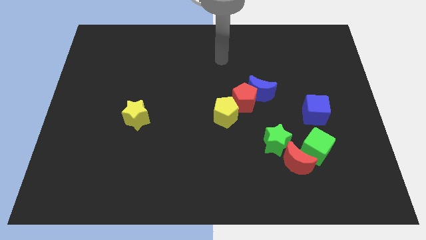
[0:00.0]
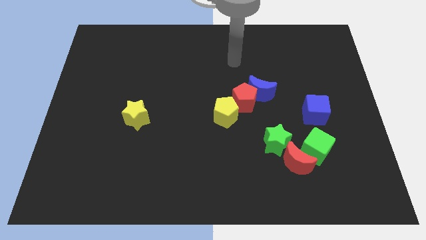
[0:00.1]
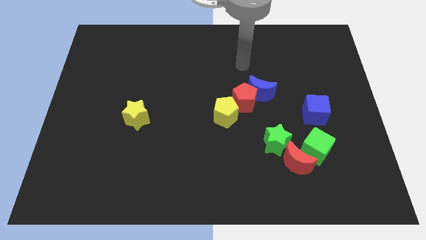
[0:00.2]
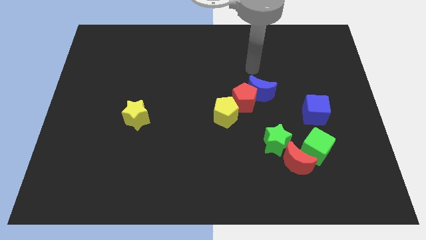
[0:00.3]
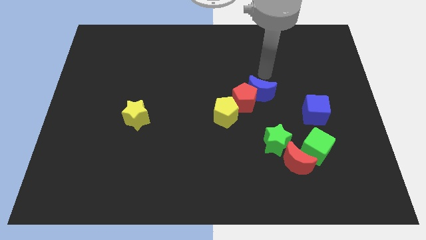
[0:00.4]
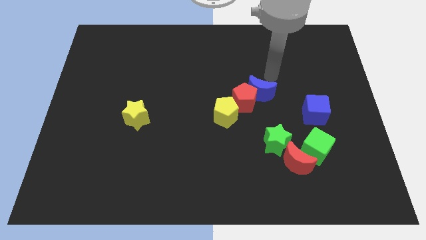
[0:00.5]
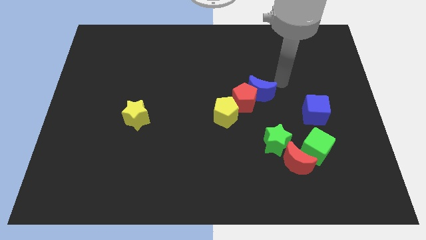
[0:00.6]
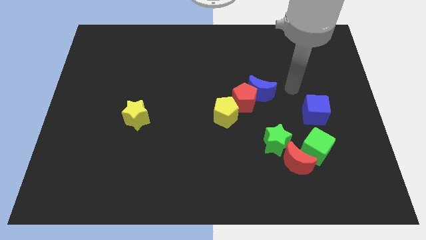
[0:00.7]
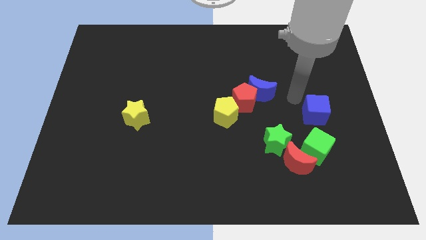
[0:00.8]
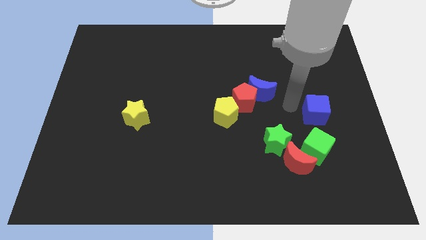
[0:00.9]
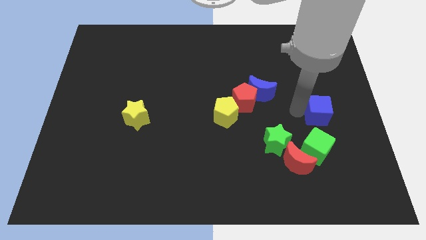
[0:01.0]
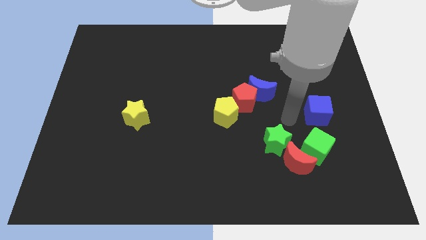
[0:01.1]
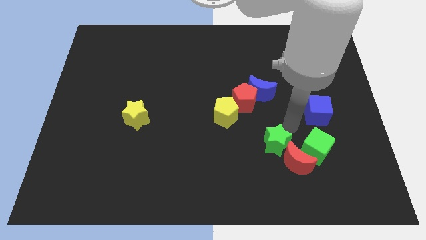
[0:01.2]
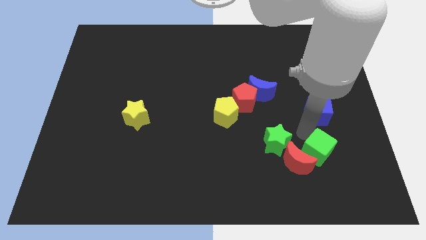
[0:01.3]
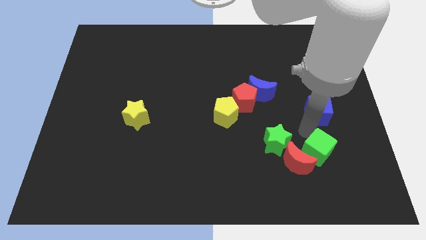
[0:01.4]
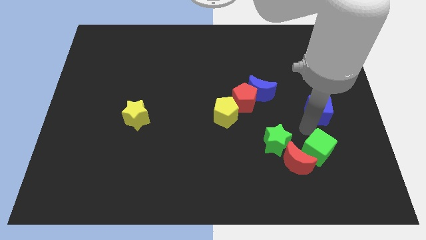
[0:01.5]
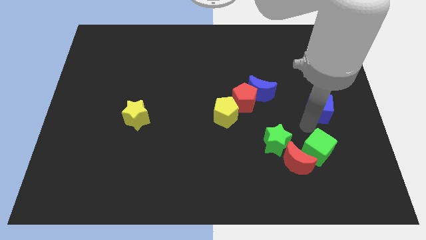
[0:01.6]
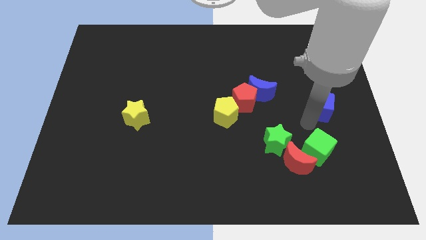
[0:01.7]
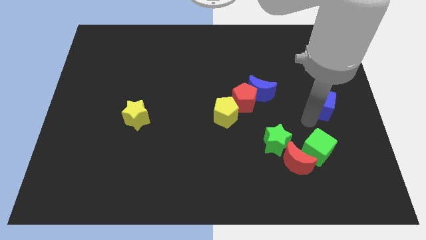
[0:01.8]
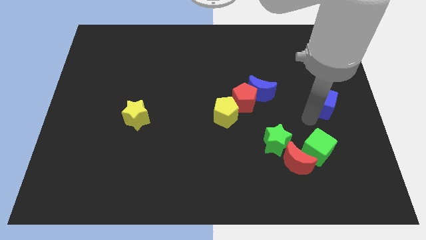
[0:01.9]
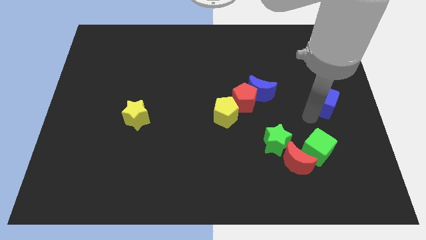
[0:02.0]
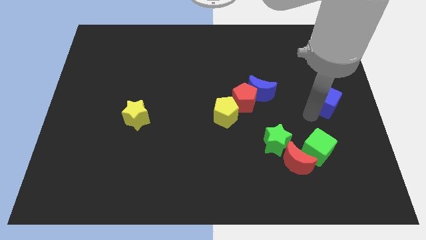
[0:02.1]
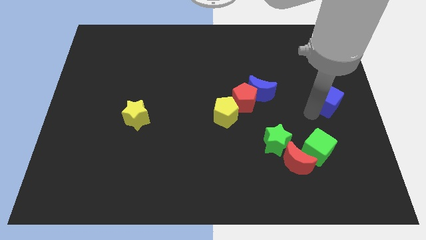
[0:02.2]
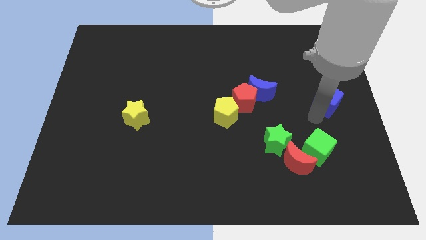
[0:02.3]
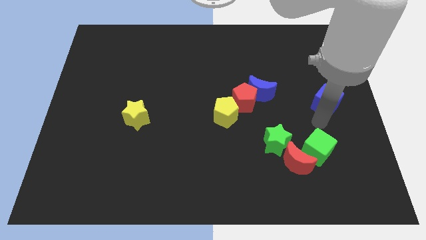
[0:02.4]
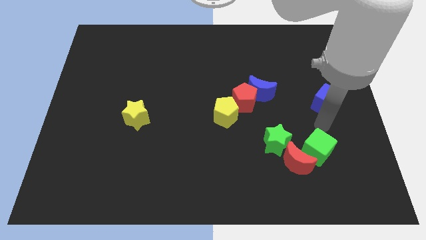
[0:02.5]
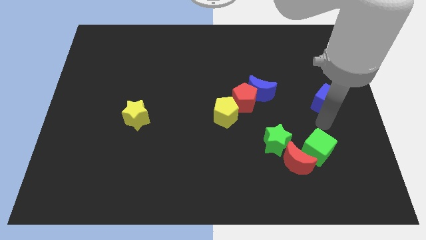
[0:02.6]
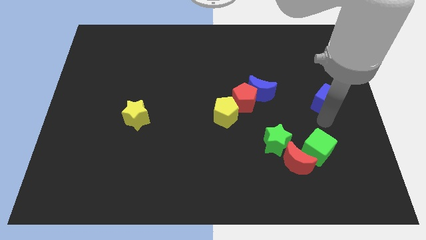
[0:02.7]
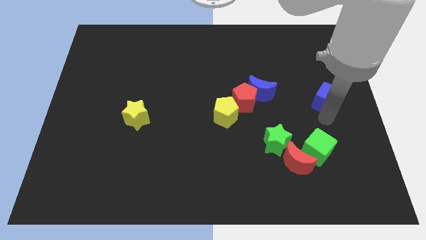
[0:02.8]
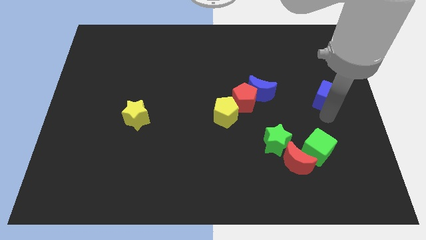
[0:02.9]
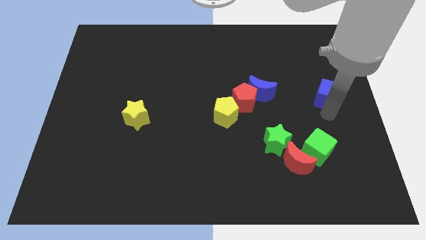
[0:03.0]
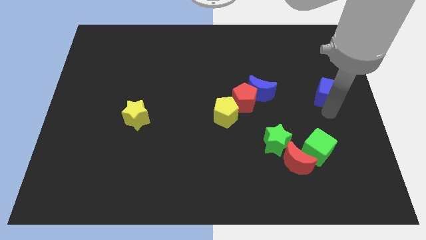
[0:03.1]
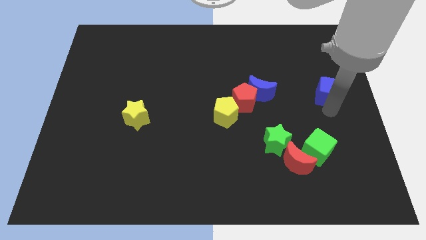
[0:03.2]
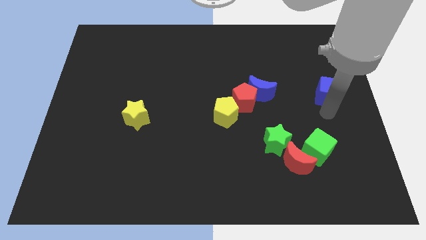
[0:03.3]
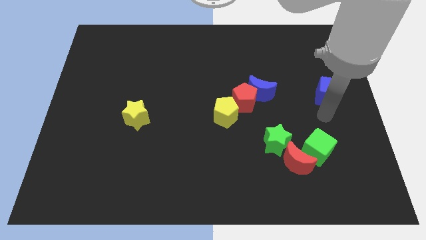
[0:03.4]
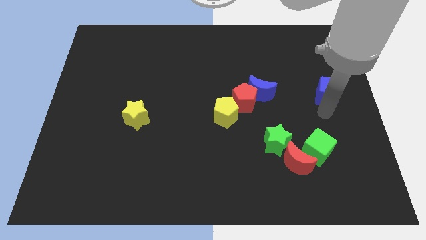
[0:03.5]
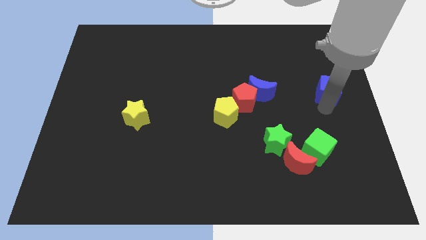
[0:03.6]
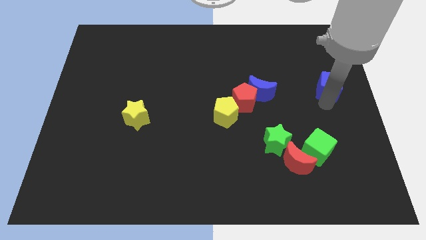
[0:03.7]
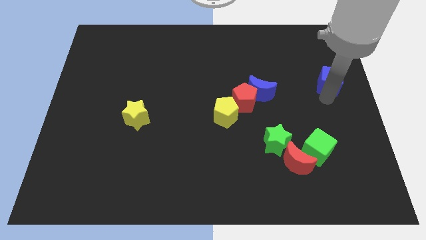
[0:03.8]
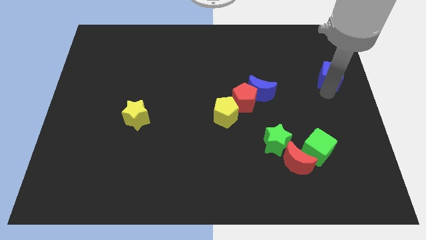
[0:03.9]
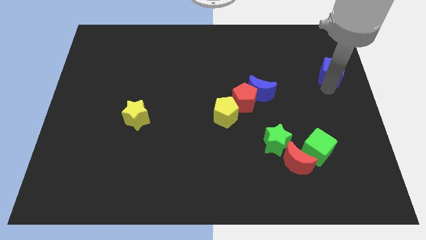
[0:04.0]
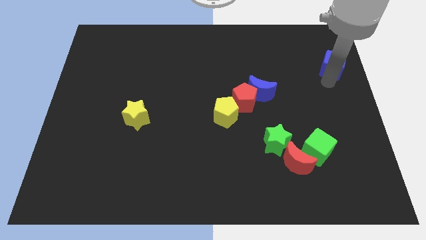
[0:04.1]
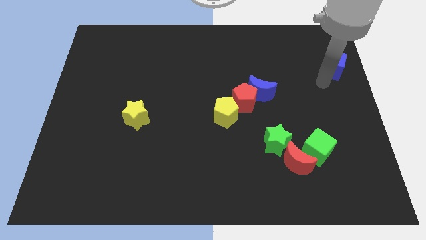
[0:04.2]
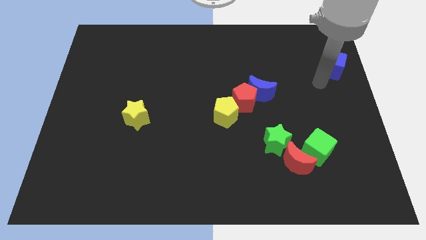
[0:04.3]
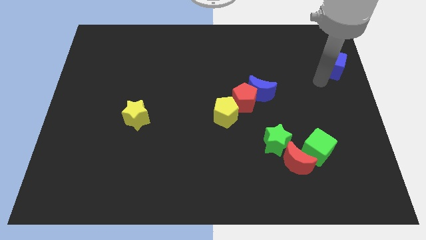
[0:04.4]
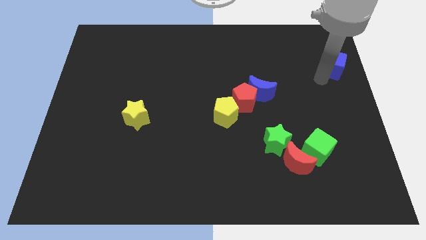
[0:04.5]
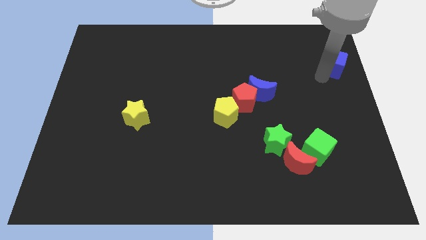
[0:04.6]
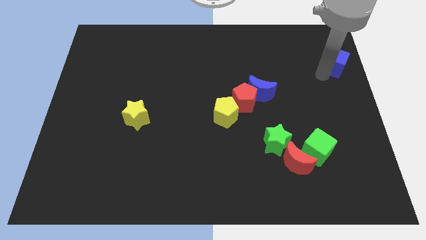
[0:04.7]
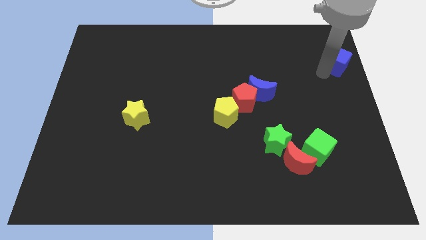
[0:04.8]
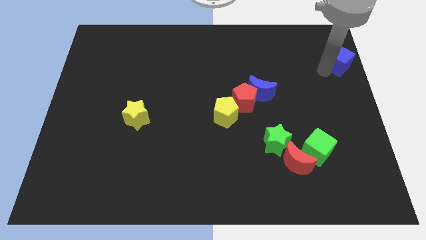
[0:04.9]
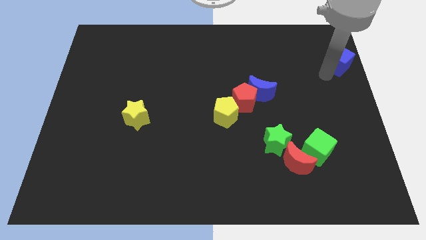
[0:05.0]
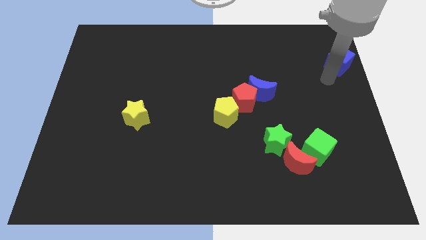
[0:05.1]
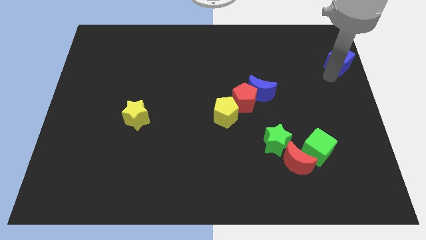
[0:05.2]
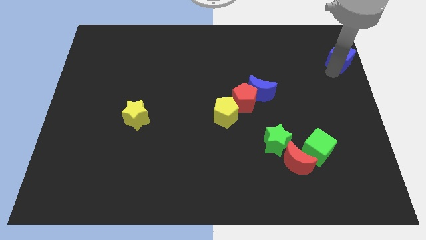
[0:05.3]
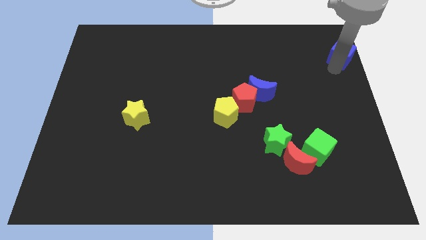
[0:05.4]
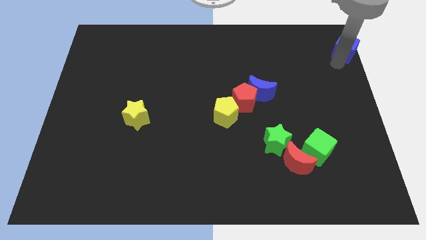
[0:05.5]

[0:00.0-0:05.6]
move the blue cube to the top right of the board
